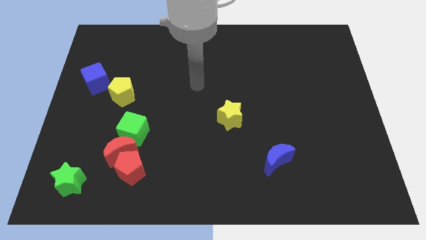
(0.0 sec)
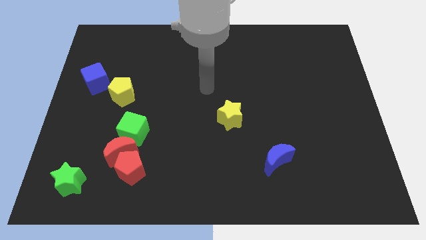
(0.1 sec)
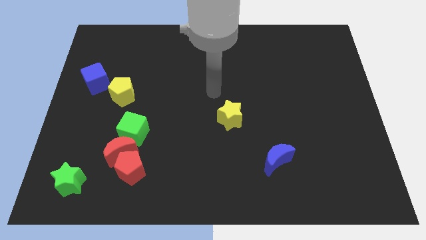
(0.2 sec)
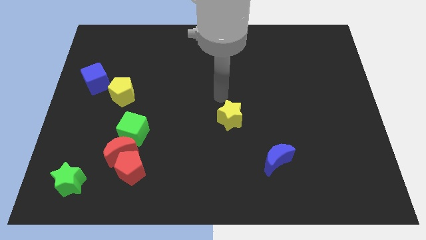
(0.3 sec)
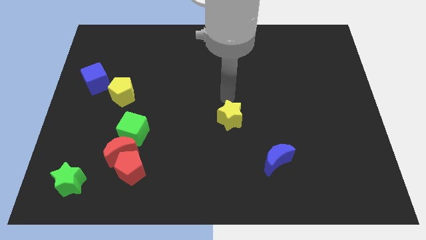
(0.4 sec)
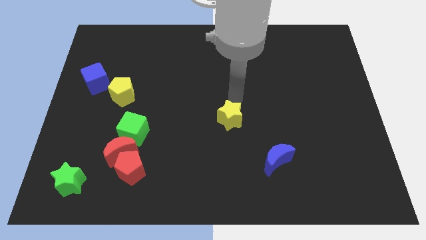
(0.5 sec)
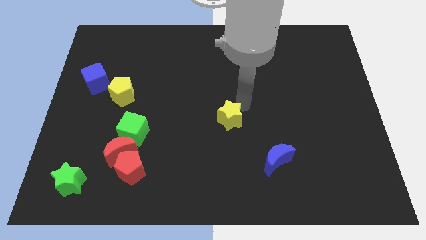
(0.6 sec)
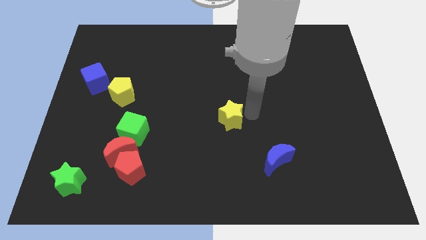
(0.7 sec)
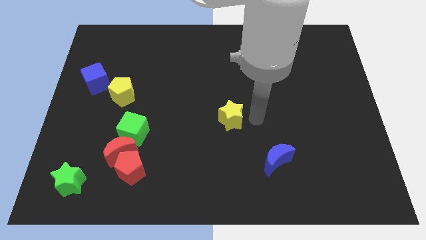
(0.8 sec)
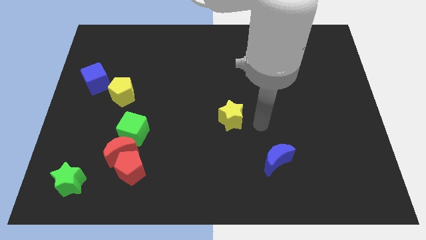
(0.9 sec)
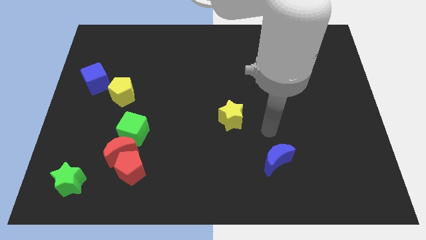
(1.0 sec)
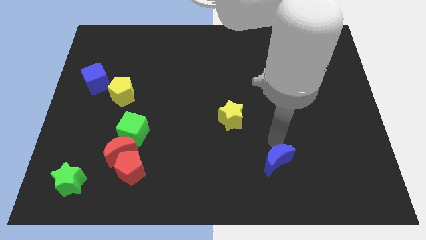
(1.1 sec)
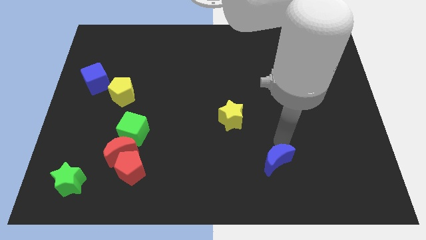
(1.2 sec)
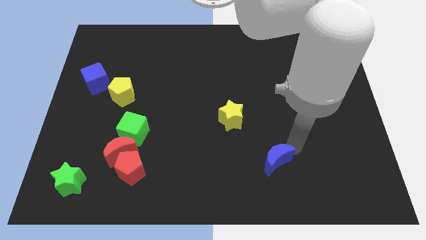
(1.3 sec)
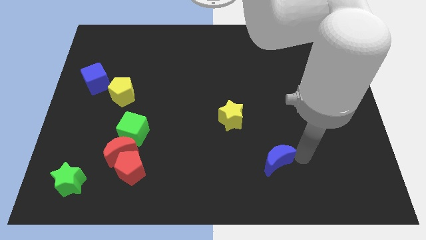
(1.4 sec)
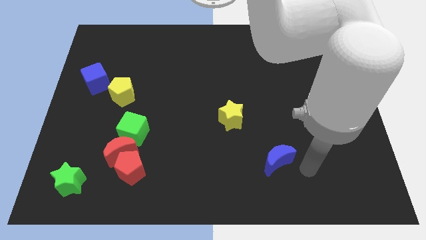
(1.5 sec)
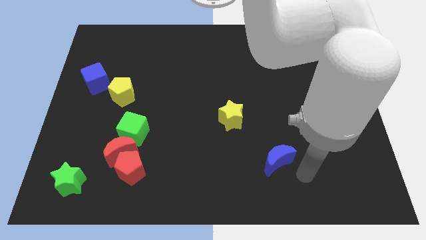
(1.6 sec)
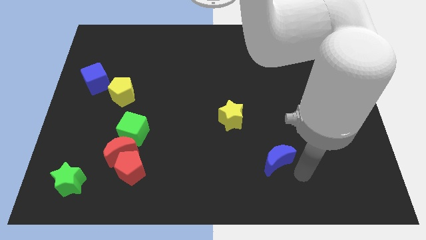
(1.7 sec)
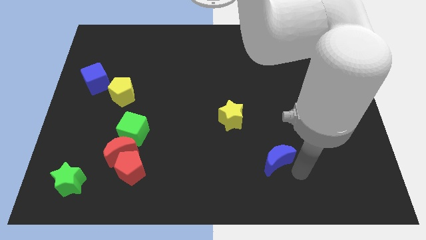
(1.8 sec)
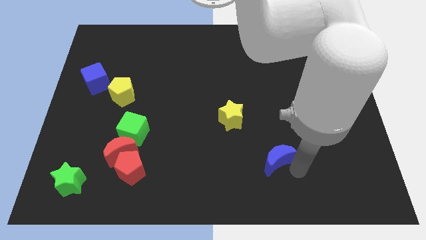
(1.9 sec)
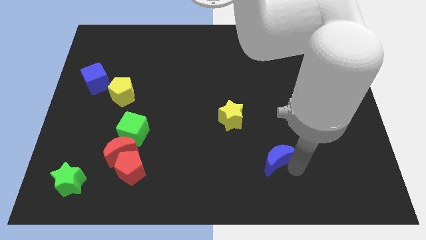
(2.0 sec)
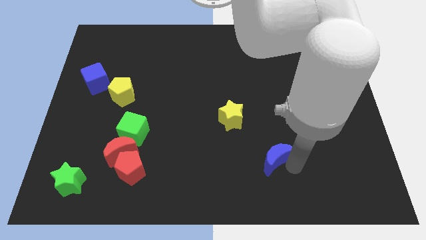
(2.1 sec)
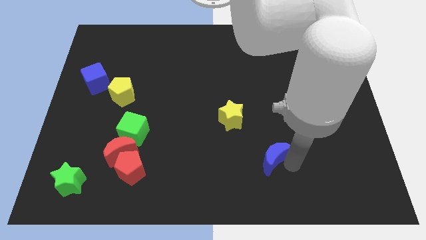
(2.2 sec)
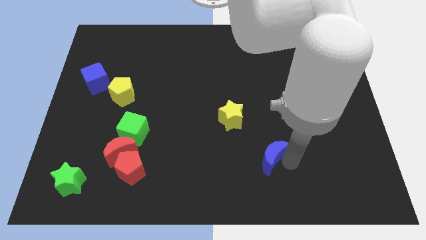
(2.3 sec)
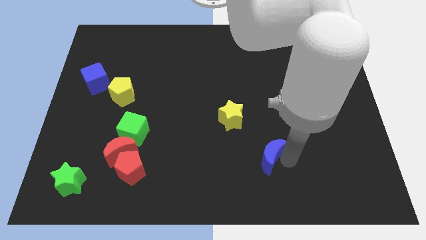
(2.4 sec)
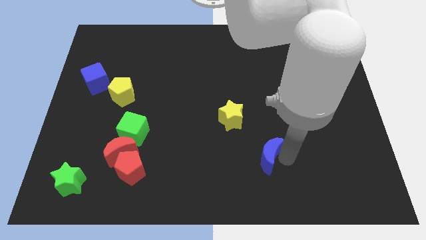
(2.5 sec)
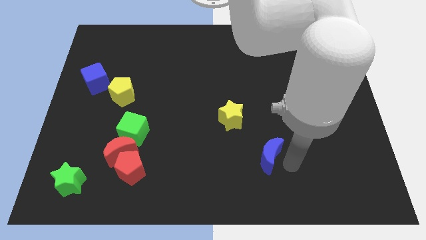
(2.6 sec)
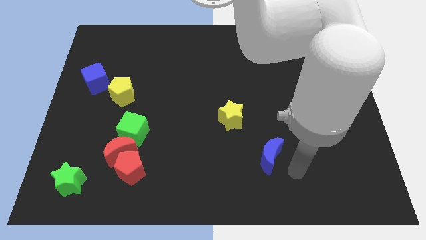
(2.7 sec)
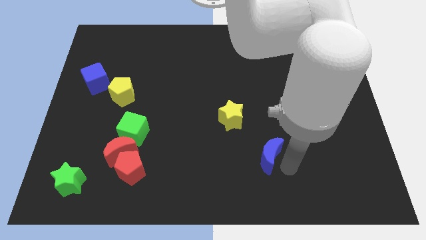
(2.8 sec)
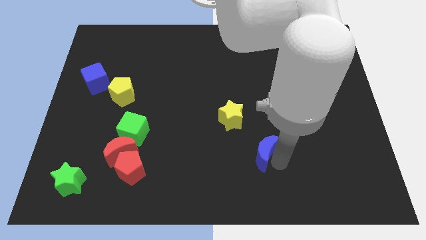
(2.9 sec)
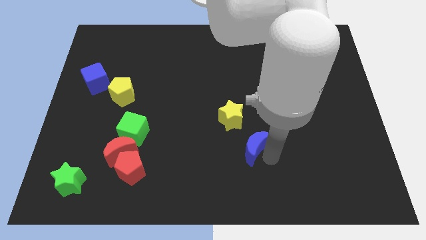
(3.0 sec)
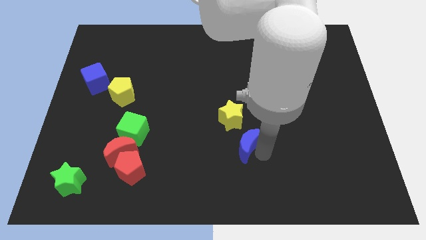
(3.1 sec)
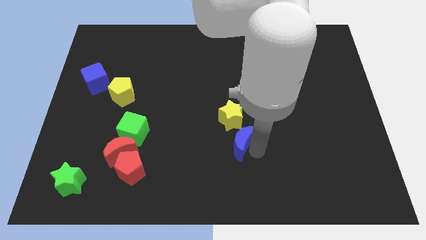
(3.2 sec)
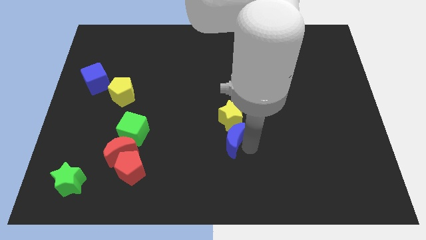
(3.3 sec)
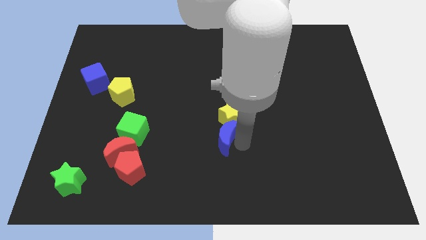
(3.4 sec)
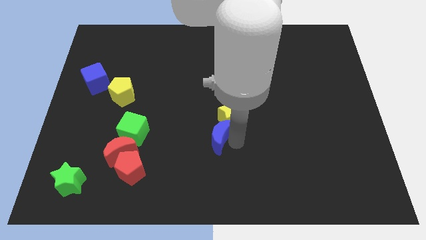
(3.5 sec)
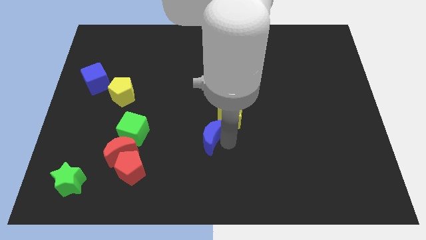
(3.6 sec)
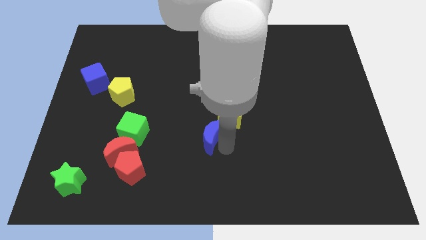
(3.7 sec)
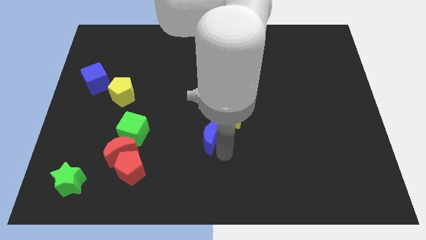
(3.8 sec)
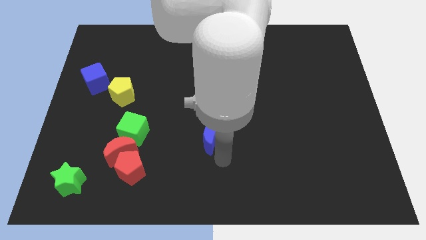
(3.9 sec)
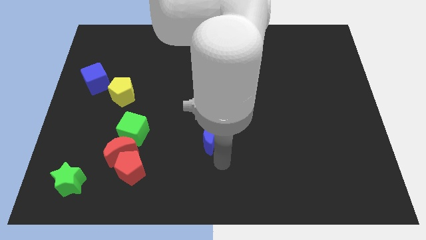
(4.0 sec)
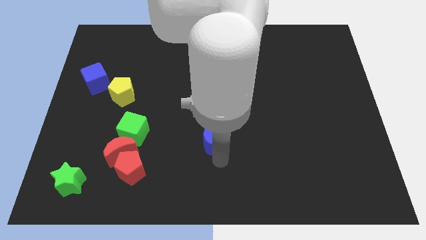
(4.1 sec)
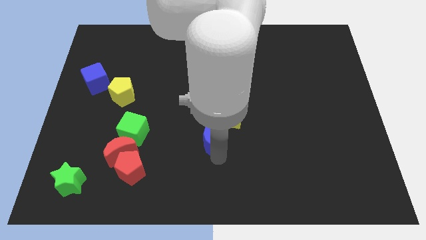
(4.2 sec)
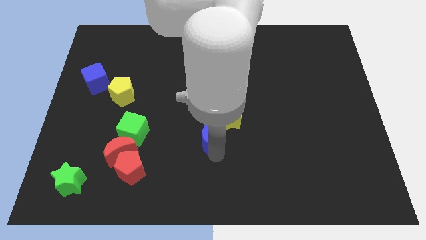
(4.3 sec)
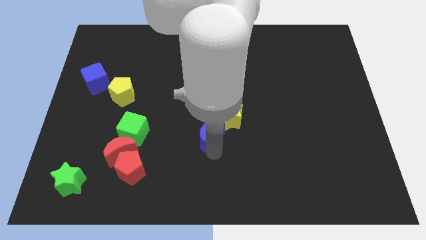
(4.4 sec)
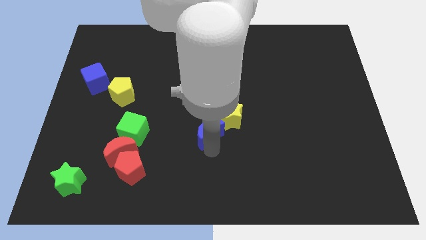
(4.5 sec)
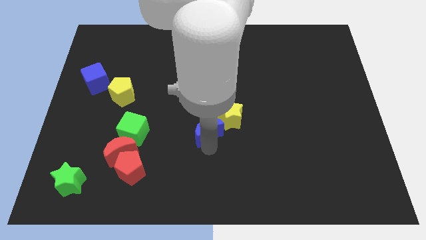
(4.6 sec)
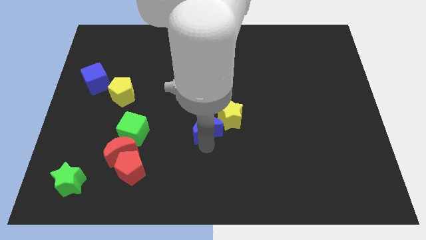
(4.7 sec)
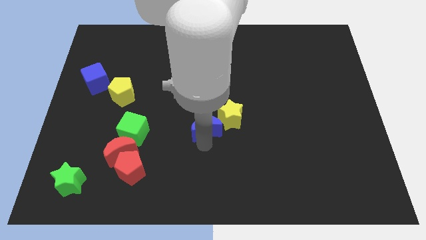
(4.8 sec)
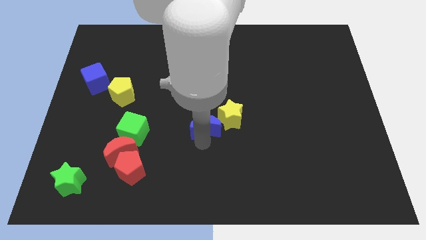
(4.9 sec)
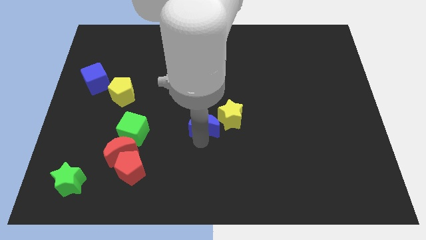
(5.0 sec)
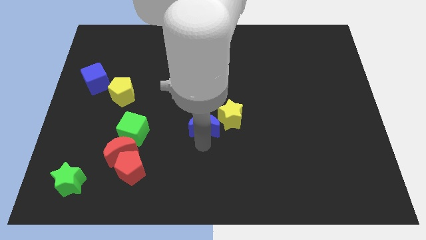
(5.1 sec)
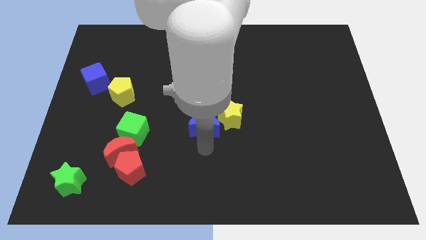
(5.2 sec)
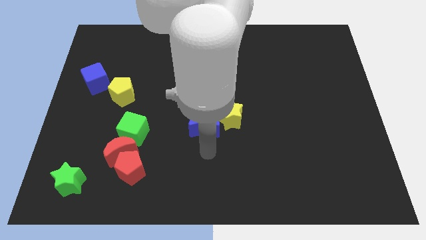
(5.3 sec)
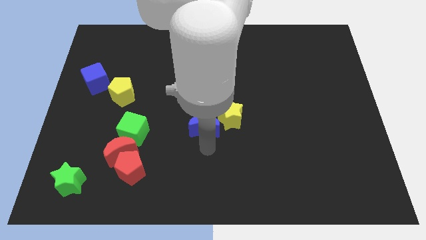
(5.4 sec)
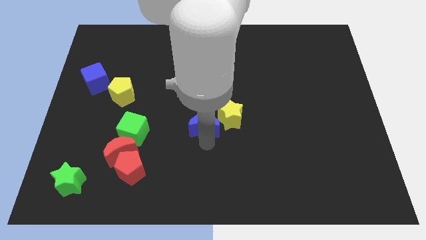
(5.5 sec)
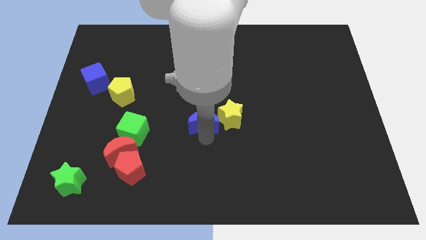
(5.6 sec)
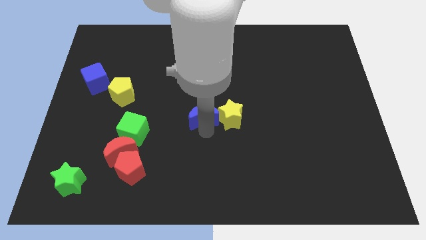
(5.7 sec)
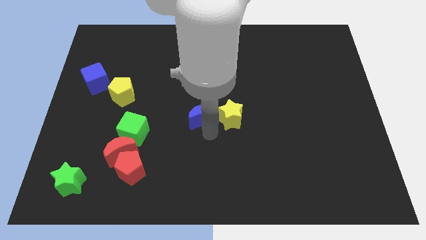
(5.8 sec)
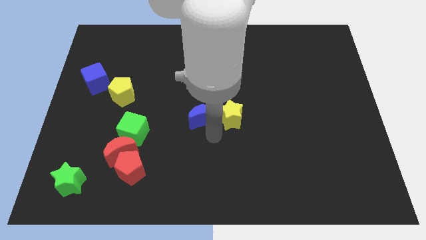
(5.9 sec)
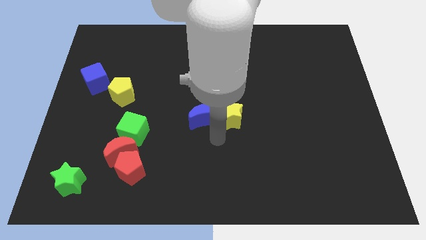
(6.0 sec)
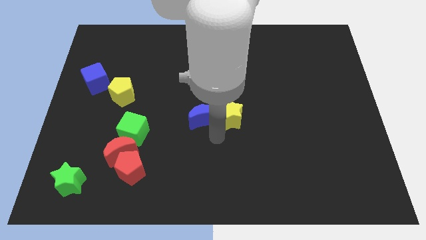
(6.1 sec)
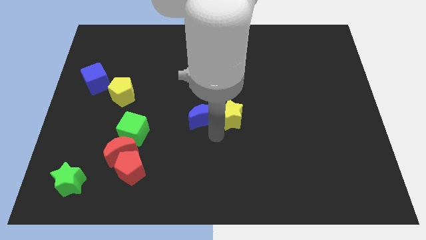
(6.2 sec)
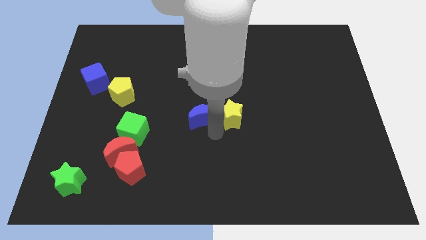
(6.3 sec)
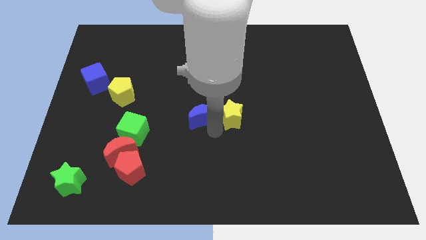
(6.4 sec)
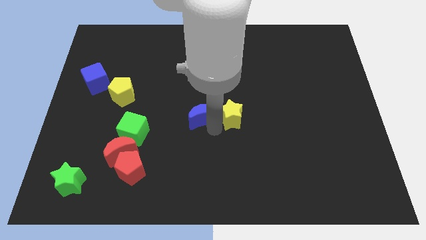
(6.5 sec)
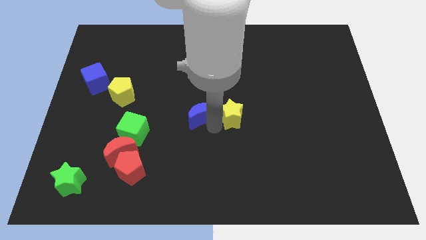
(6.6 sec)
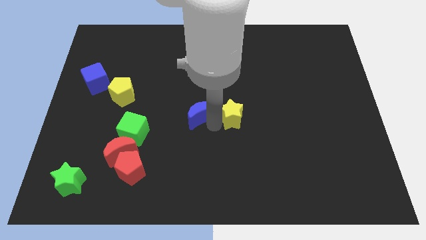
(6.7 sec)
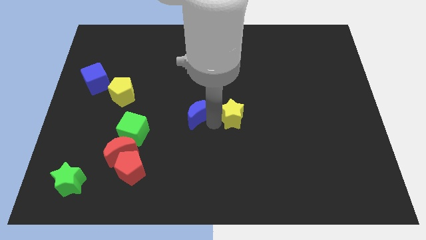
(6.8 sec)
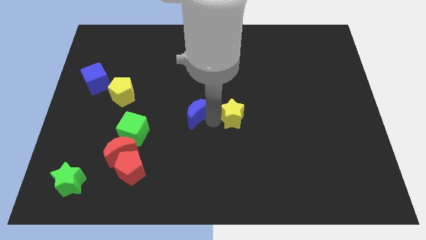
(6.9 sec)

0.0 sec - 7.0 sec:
push the blue moon upwards and left

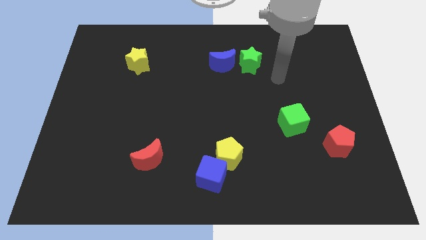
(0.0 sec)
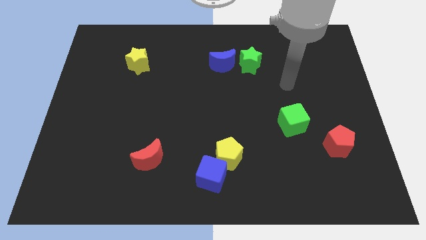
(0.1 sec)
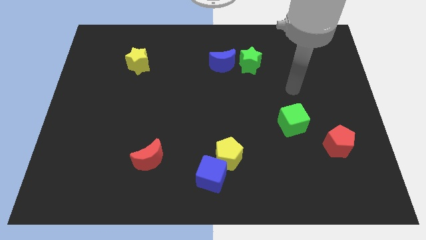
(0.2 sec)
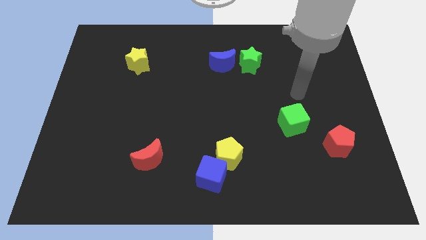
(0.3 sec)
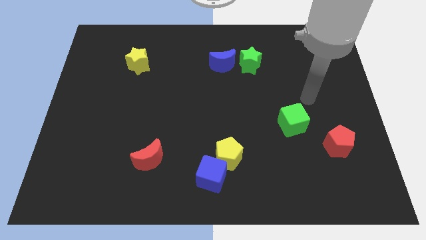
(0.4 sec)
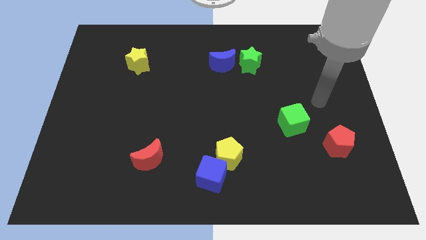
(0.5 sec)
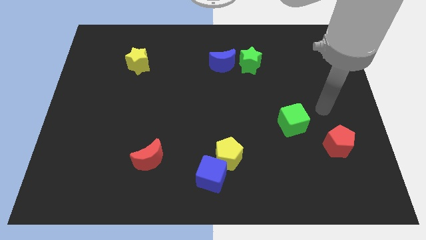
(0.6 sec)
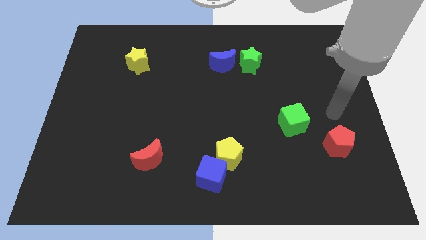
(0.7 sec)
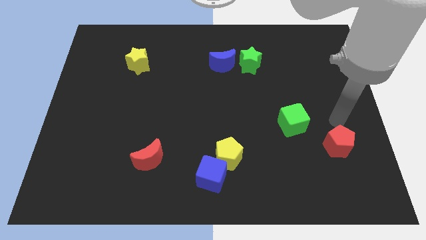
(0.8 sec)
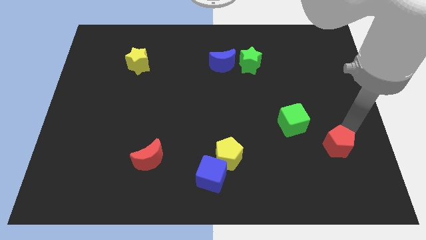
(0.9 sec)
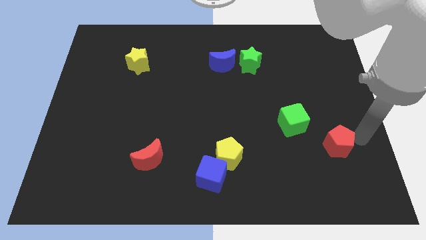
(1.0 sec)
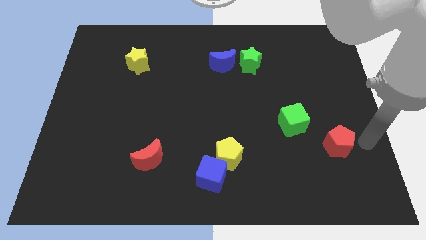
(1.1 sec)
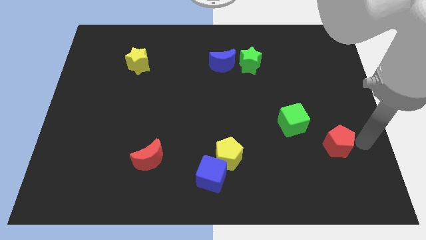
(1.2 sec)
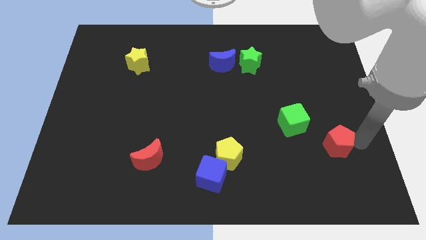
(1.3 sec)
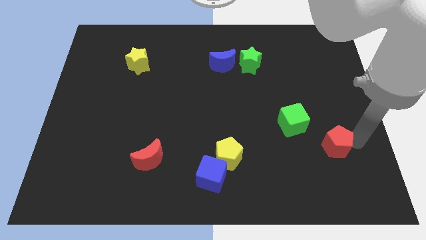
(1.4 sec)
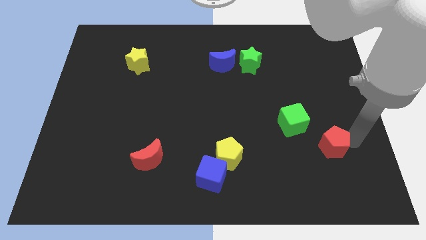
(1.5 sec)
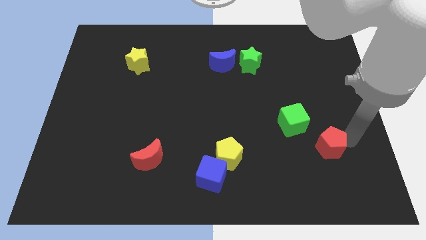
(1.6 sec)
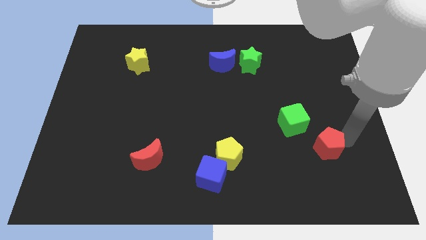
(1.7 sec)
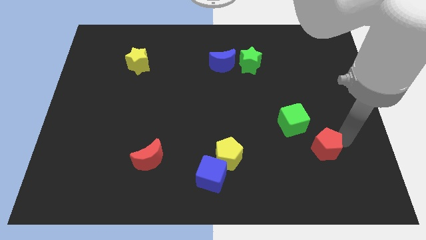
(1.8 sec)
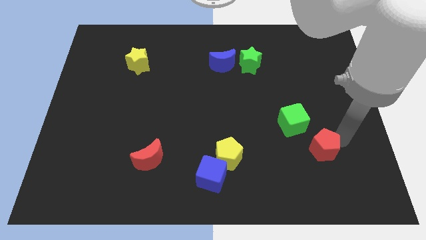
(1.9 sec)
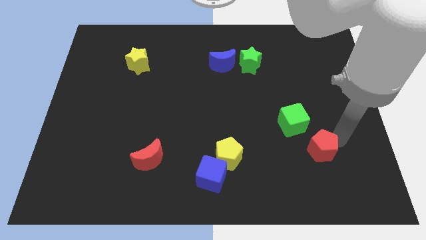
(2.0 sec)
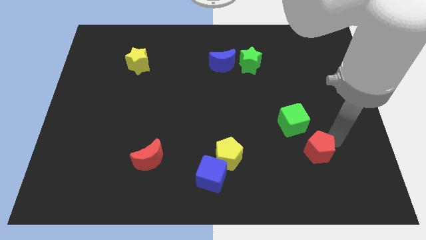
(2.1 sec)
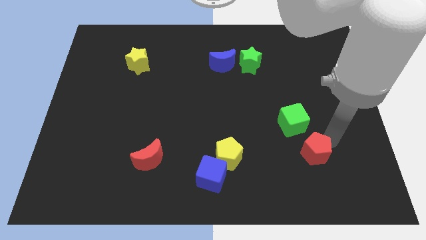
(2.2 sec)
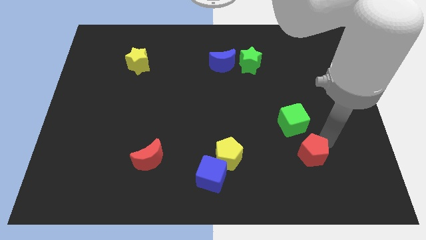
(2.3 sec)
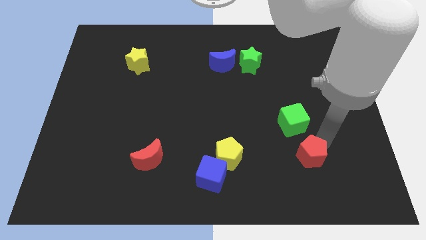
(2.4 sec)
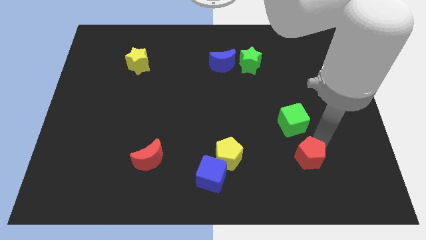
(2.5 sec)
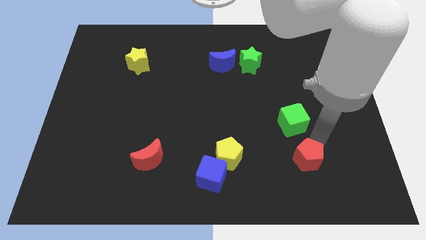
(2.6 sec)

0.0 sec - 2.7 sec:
move the red pentagon somewhat to the left
